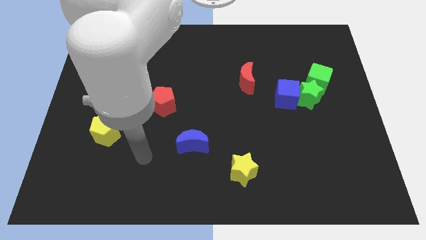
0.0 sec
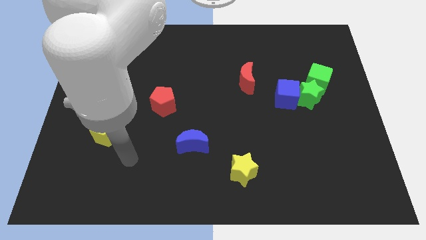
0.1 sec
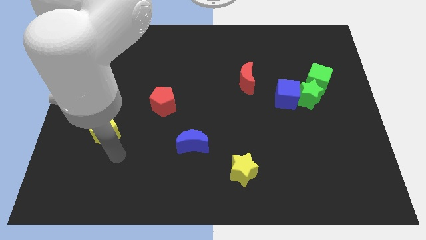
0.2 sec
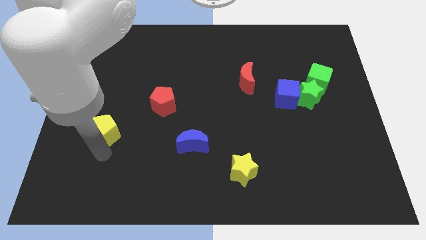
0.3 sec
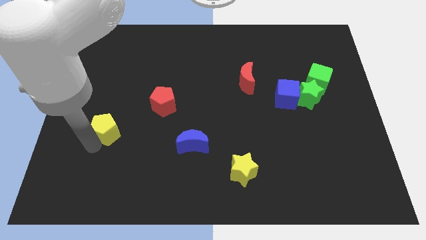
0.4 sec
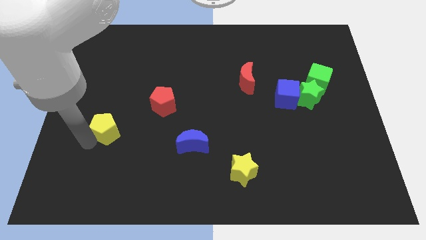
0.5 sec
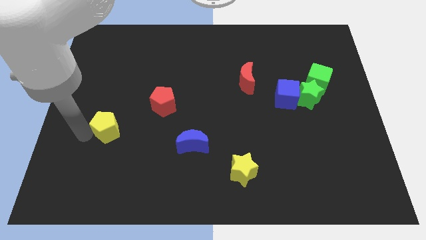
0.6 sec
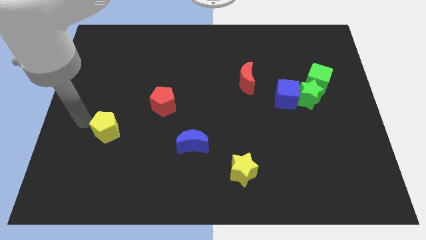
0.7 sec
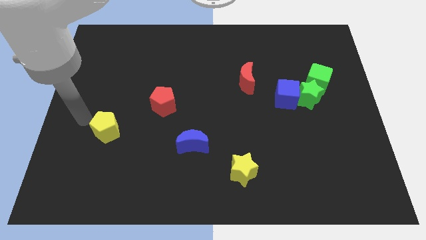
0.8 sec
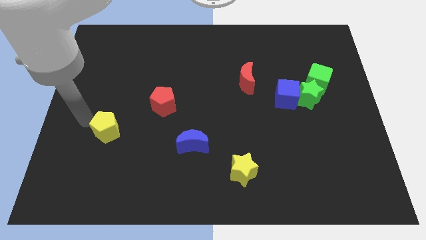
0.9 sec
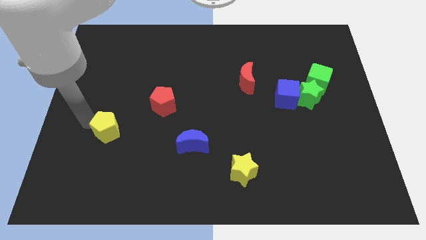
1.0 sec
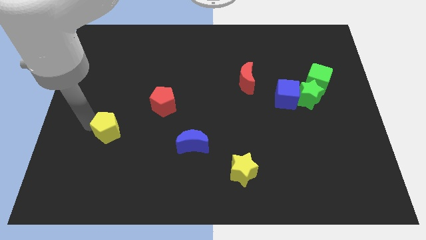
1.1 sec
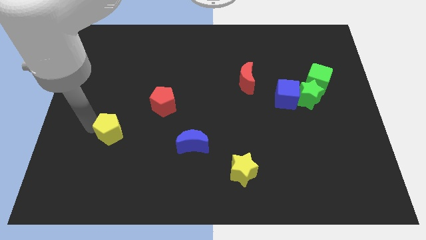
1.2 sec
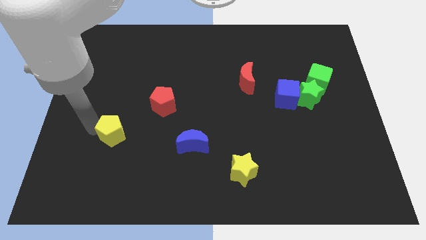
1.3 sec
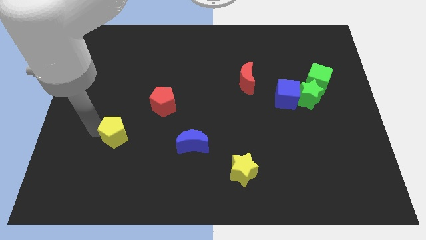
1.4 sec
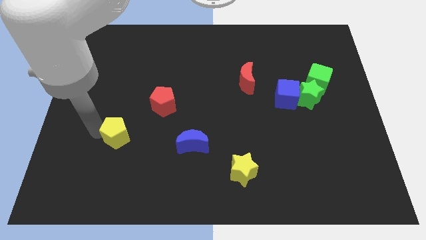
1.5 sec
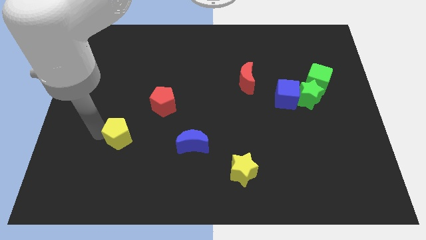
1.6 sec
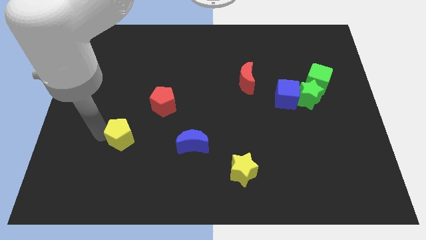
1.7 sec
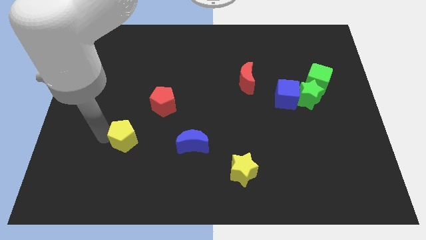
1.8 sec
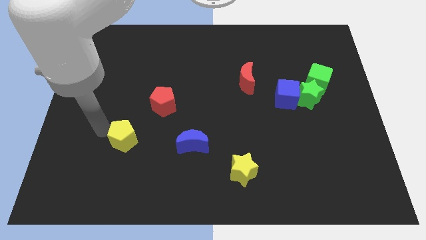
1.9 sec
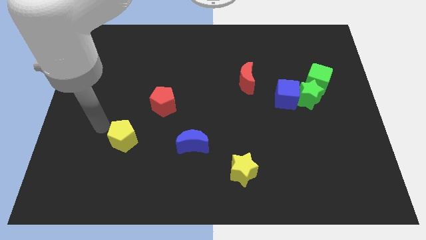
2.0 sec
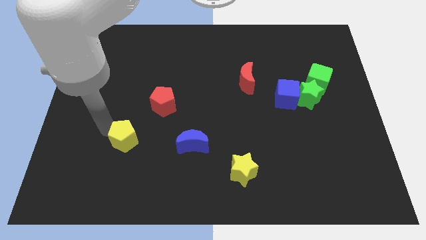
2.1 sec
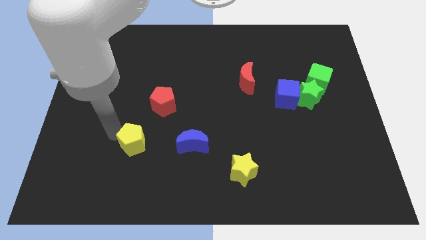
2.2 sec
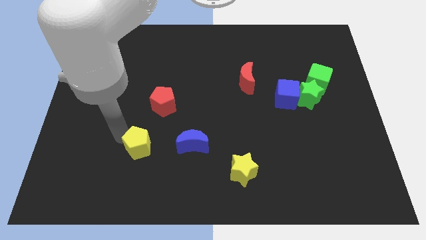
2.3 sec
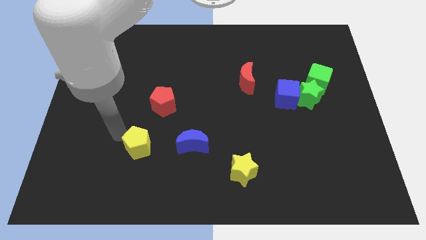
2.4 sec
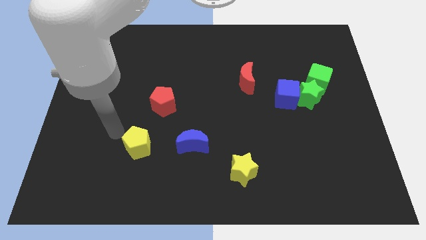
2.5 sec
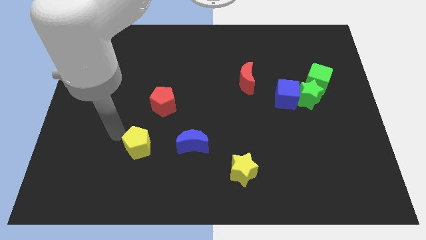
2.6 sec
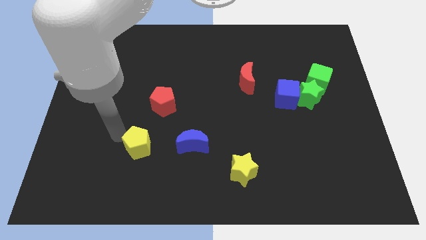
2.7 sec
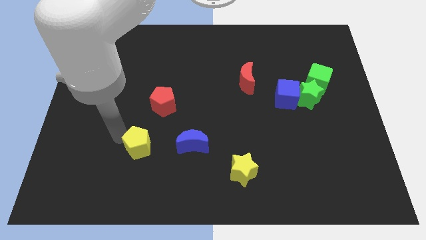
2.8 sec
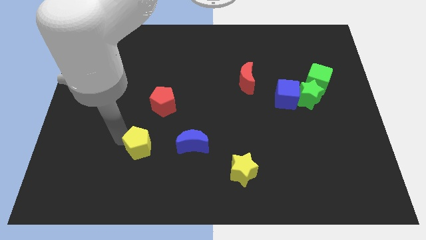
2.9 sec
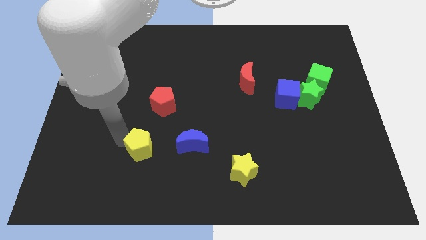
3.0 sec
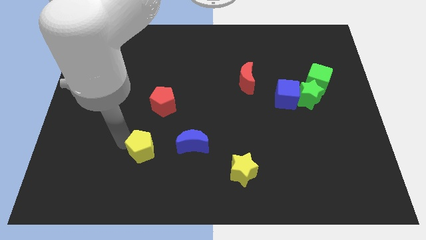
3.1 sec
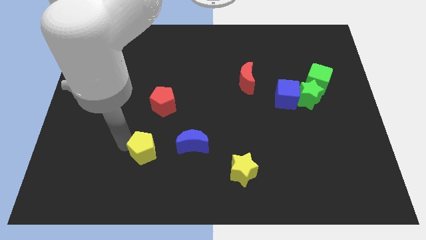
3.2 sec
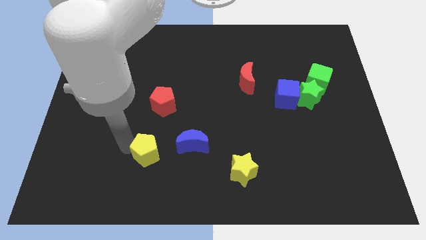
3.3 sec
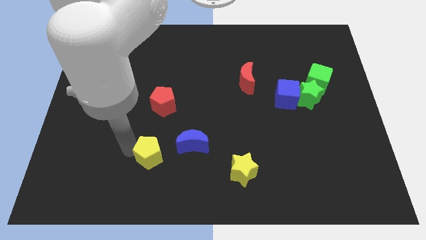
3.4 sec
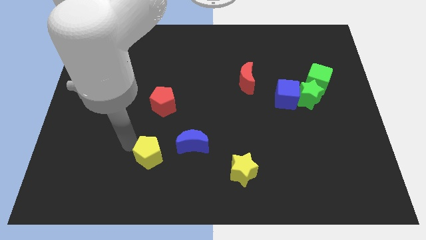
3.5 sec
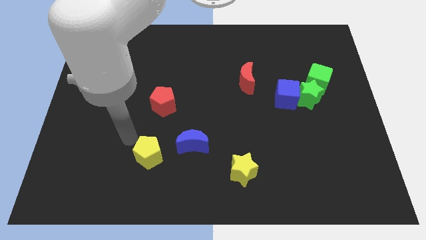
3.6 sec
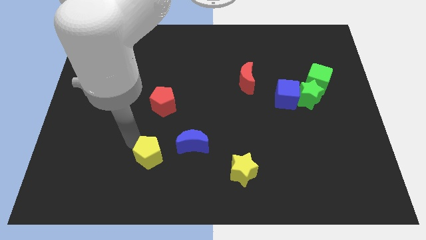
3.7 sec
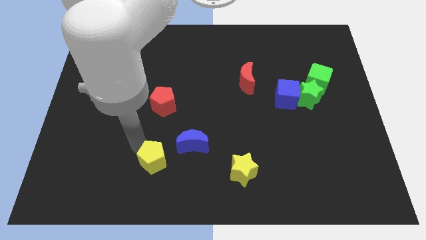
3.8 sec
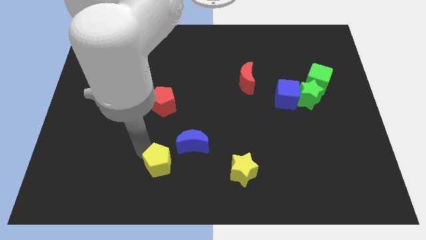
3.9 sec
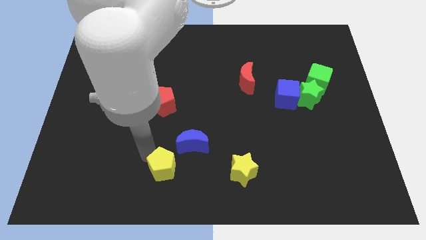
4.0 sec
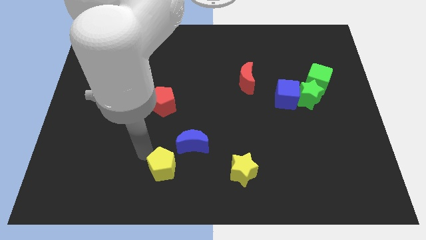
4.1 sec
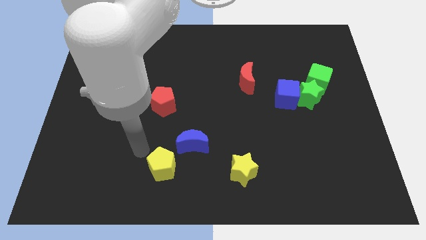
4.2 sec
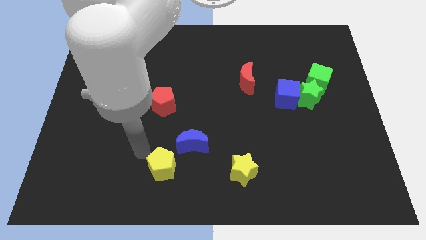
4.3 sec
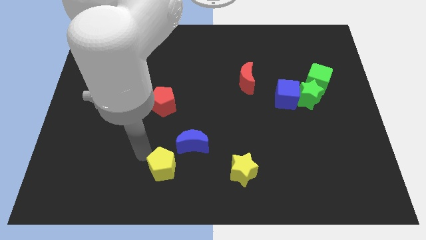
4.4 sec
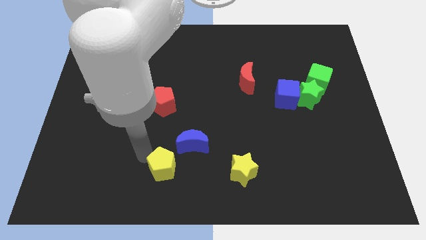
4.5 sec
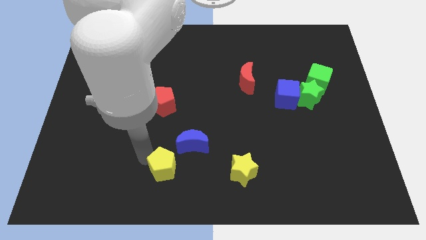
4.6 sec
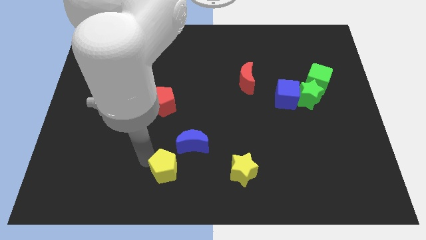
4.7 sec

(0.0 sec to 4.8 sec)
push the yellow pentagon to the bottom

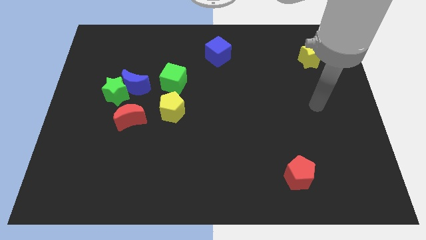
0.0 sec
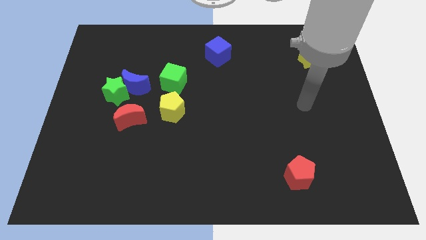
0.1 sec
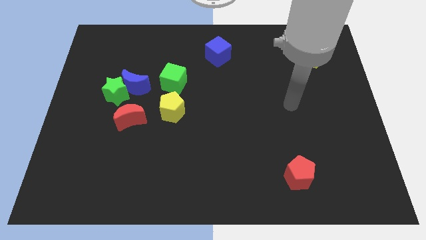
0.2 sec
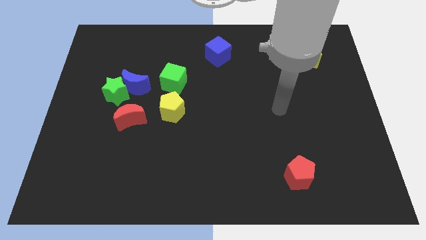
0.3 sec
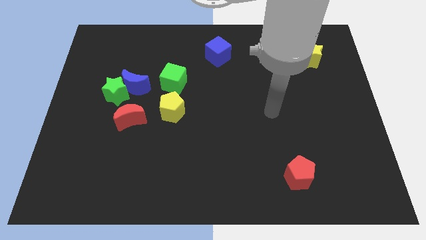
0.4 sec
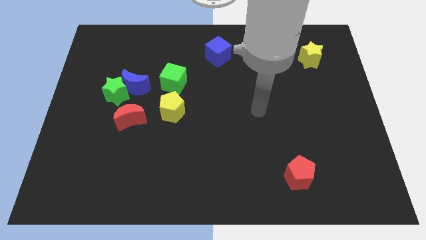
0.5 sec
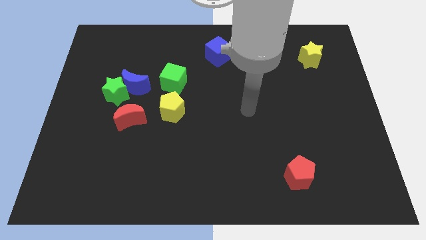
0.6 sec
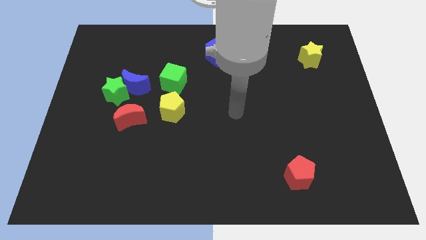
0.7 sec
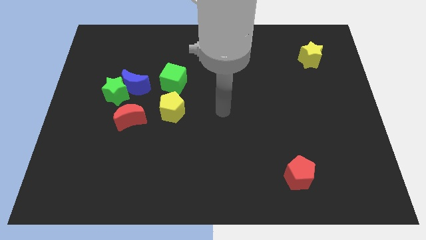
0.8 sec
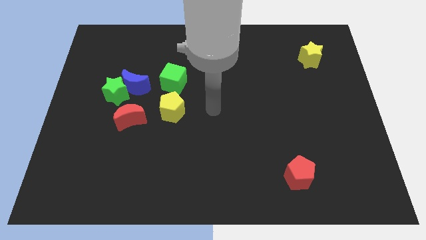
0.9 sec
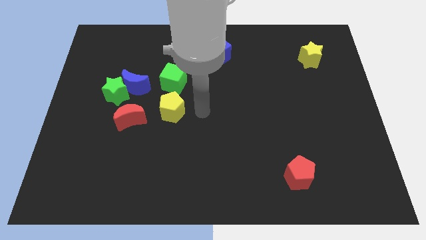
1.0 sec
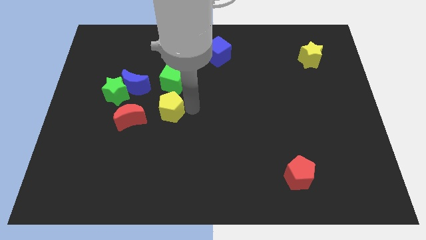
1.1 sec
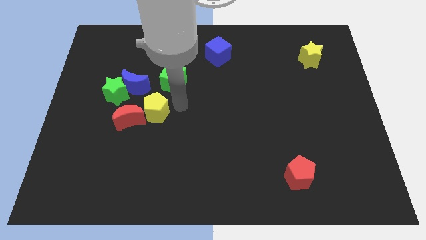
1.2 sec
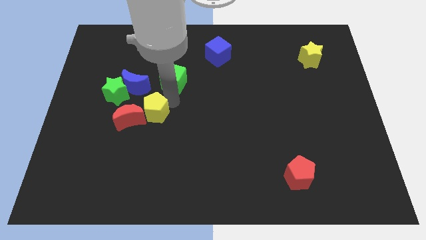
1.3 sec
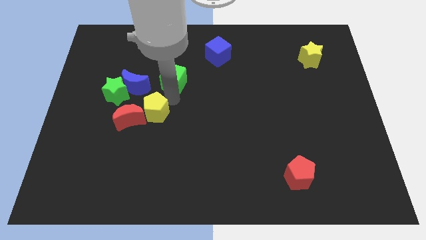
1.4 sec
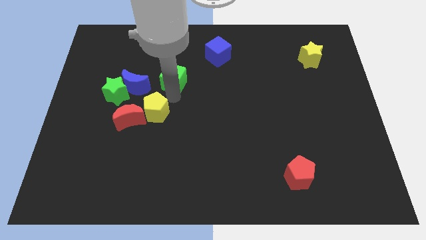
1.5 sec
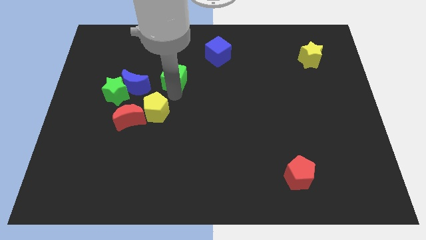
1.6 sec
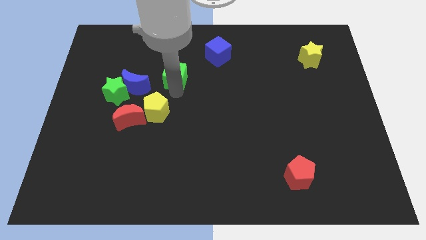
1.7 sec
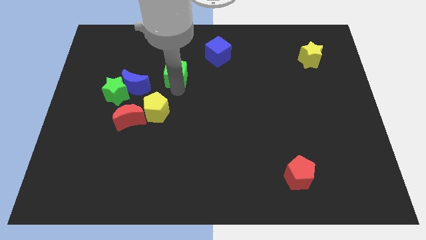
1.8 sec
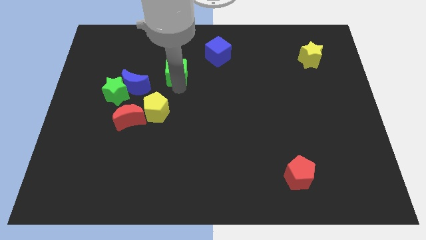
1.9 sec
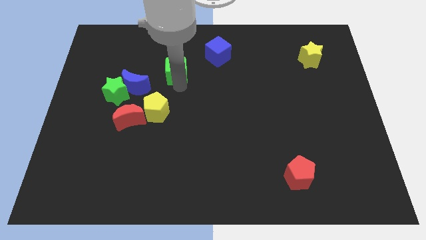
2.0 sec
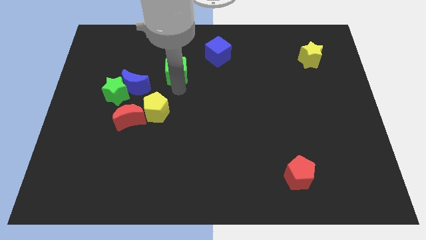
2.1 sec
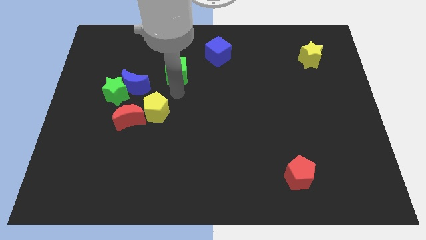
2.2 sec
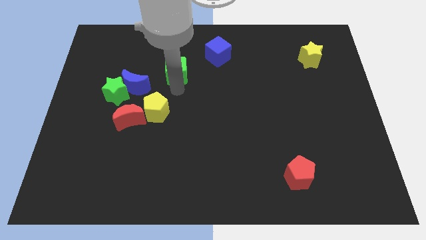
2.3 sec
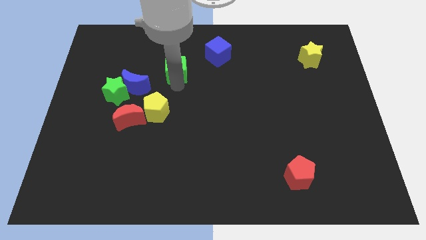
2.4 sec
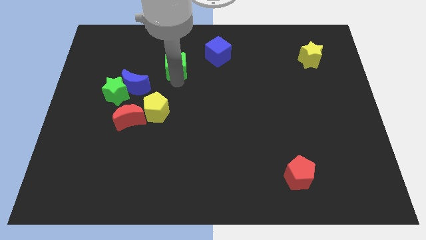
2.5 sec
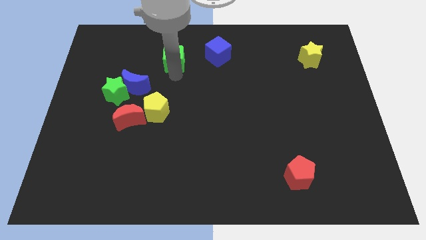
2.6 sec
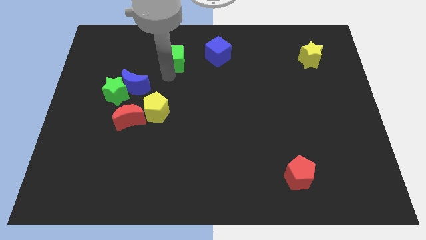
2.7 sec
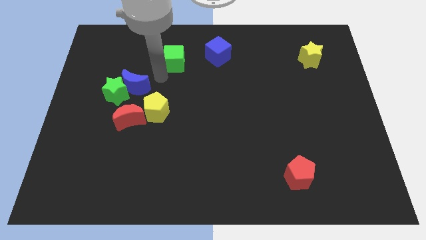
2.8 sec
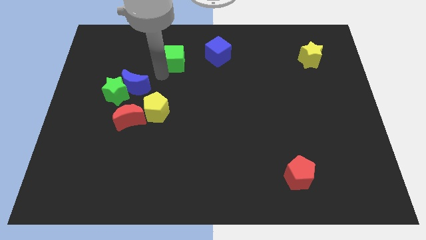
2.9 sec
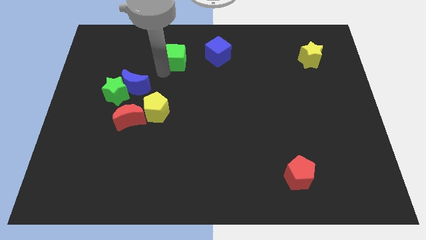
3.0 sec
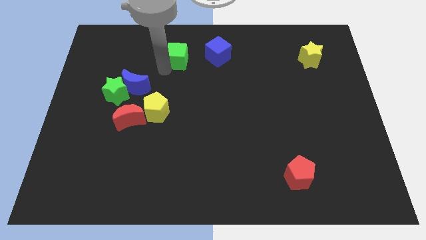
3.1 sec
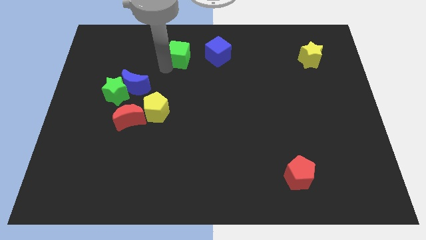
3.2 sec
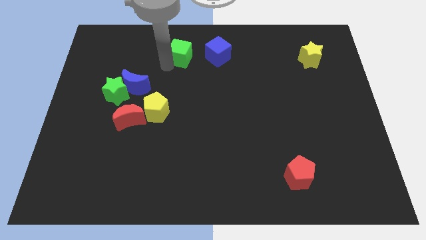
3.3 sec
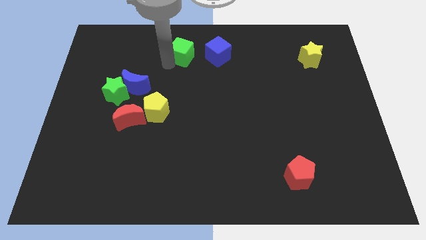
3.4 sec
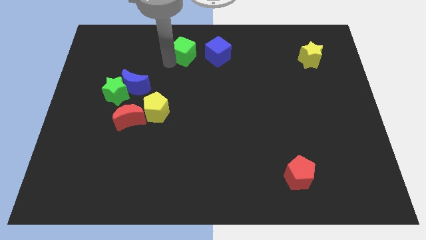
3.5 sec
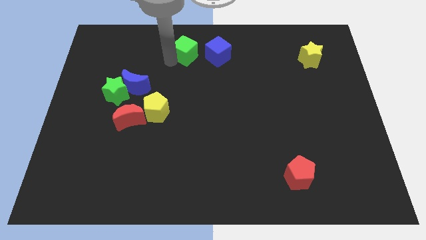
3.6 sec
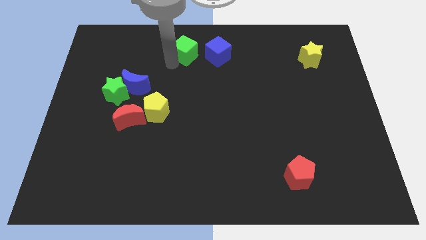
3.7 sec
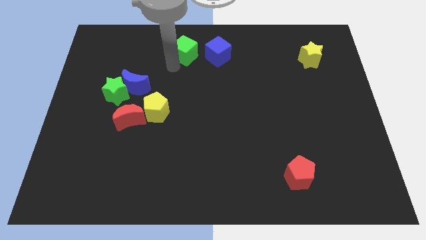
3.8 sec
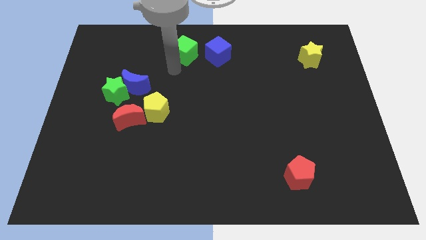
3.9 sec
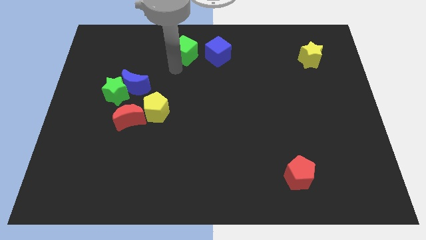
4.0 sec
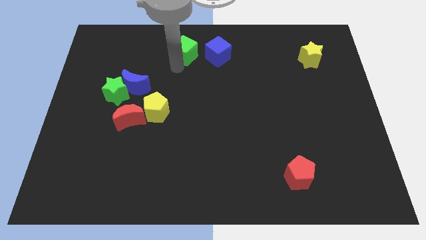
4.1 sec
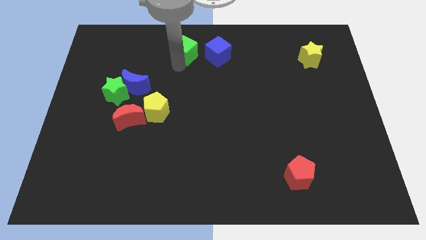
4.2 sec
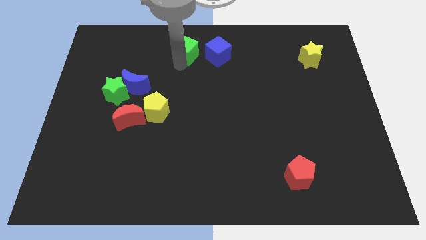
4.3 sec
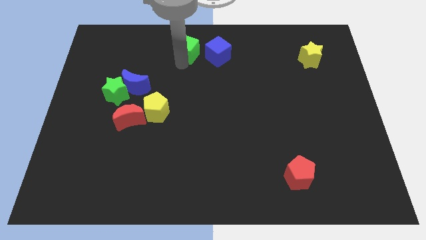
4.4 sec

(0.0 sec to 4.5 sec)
push the green cube to the top side
